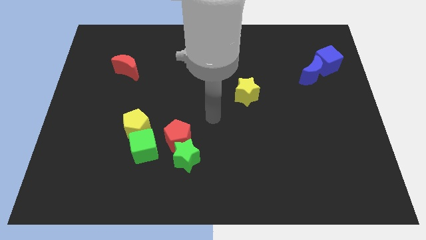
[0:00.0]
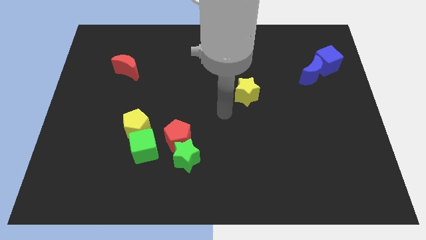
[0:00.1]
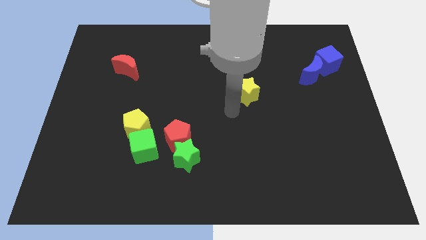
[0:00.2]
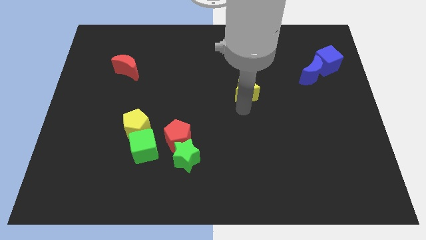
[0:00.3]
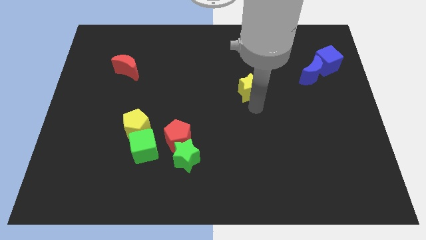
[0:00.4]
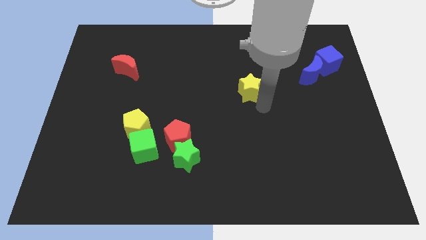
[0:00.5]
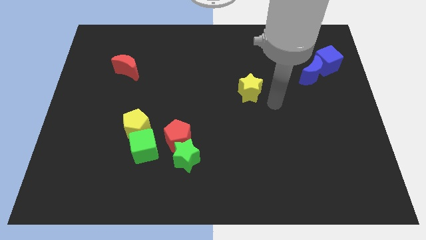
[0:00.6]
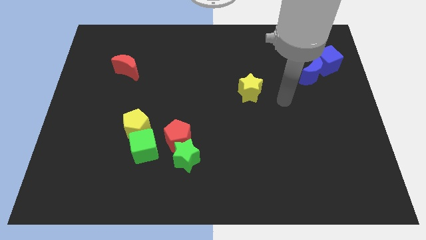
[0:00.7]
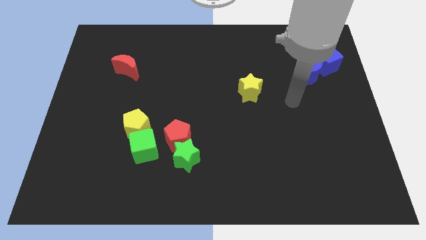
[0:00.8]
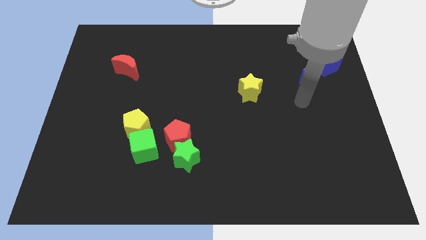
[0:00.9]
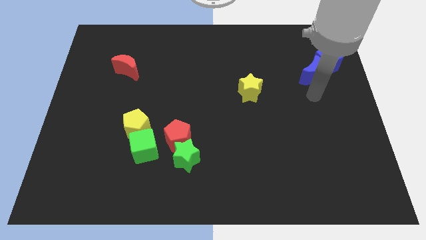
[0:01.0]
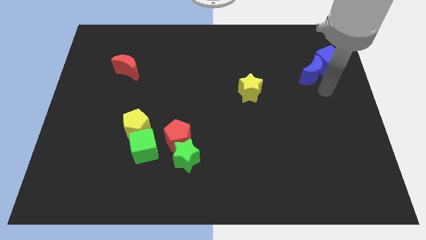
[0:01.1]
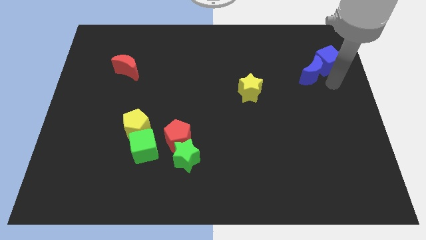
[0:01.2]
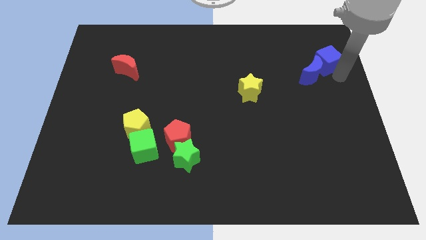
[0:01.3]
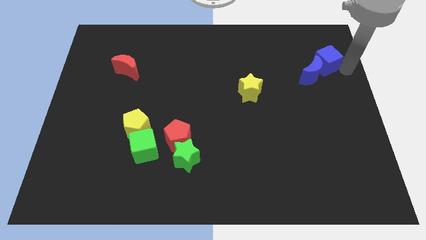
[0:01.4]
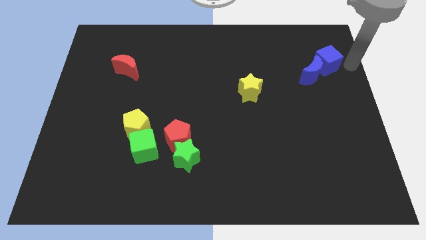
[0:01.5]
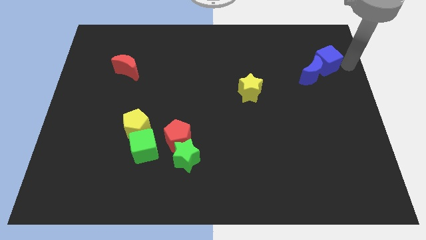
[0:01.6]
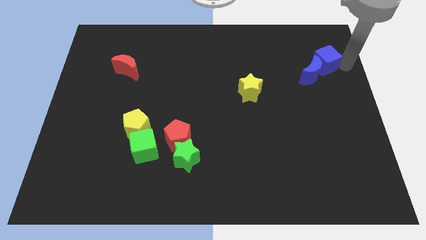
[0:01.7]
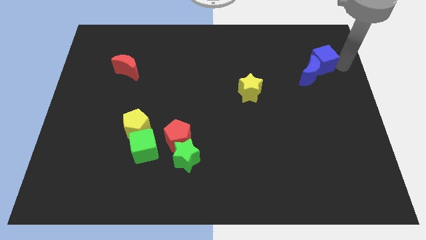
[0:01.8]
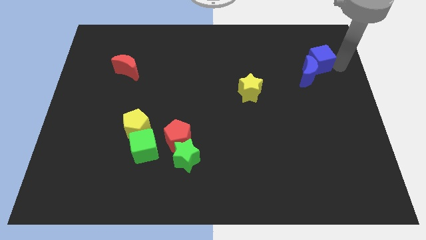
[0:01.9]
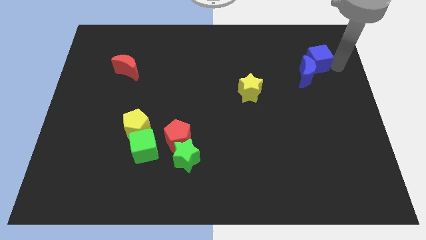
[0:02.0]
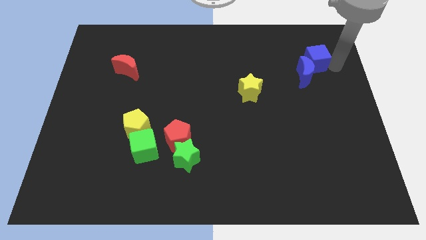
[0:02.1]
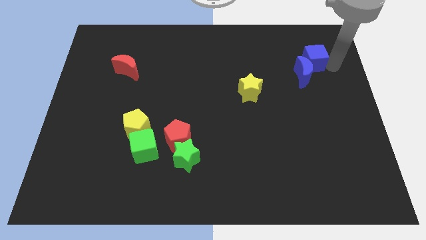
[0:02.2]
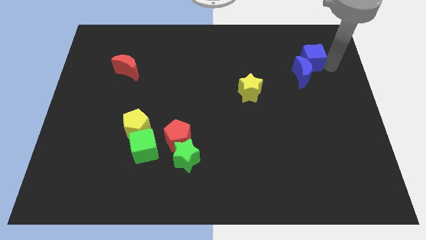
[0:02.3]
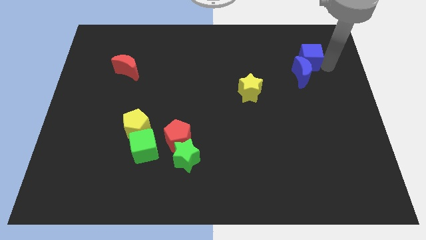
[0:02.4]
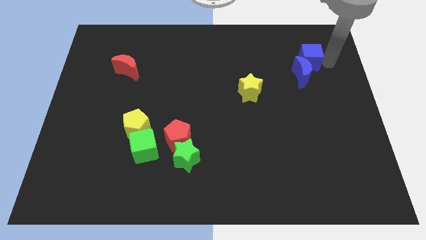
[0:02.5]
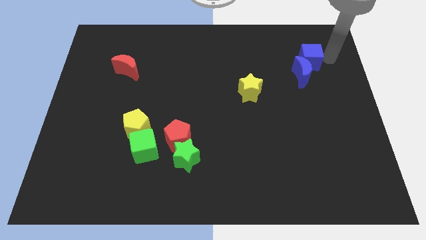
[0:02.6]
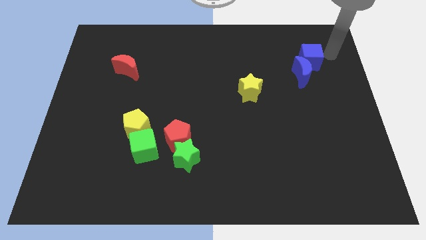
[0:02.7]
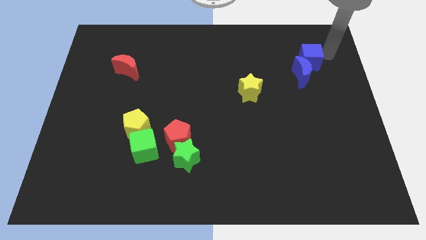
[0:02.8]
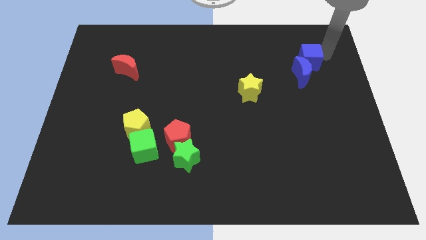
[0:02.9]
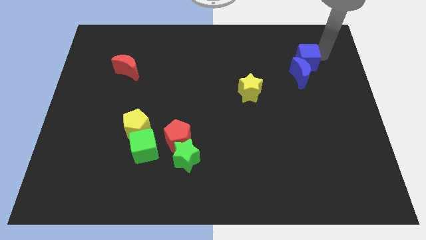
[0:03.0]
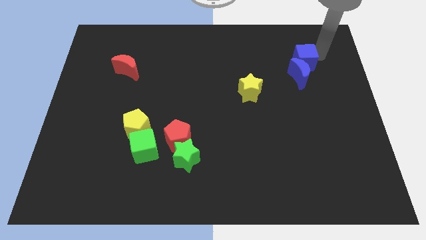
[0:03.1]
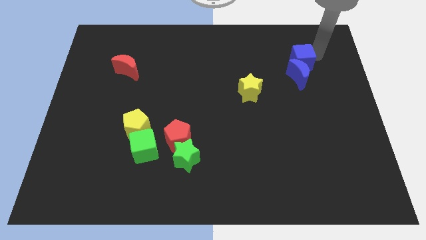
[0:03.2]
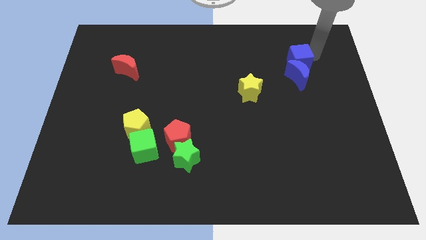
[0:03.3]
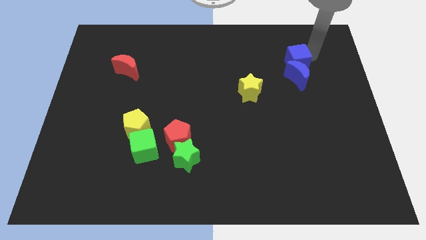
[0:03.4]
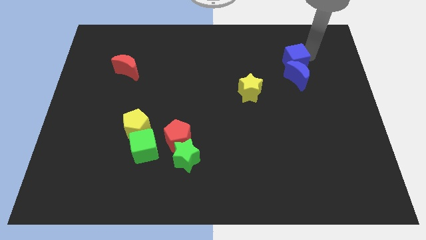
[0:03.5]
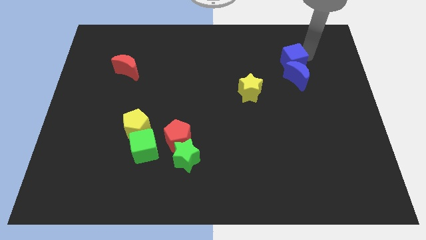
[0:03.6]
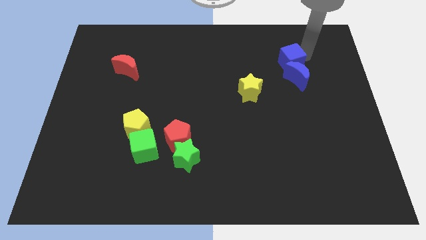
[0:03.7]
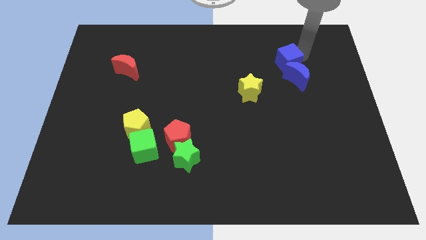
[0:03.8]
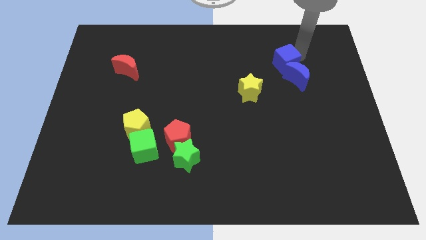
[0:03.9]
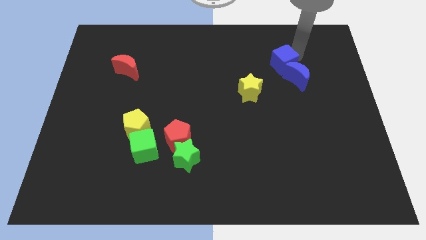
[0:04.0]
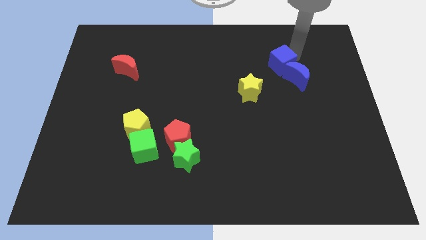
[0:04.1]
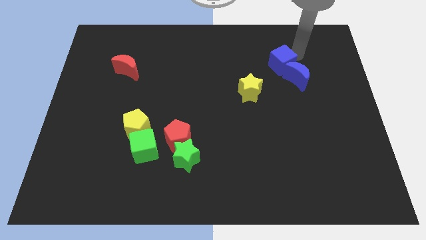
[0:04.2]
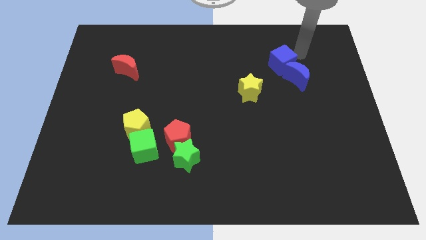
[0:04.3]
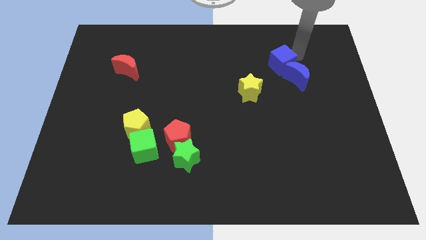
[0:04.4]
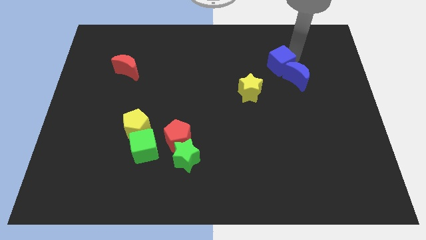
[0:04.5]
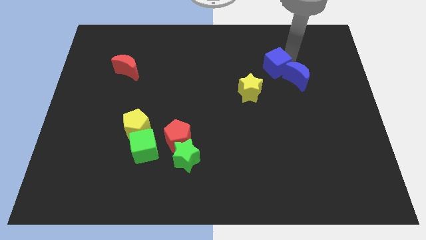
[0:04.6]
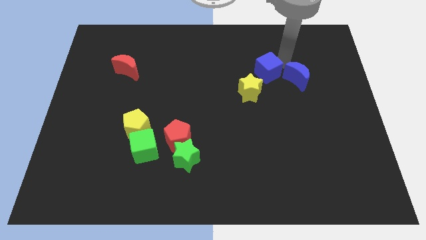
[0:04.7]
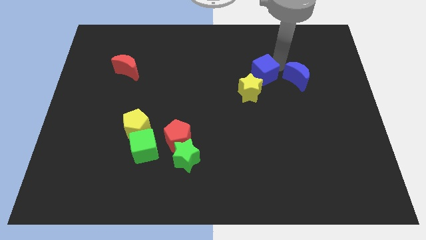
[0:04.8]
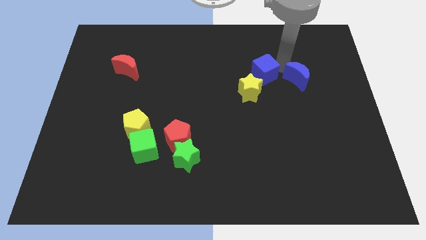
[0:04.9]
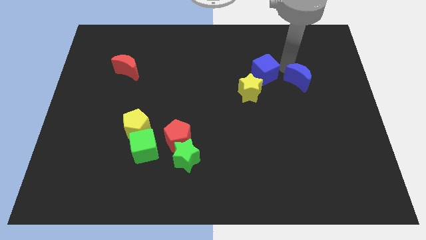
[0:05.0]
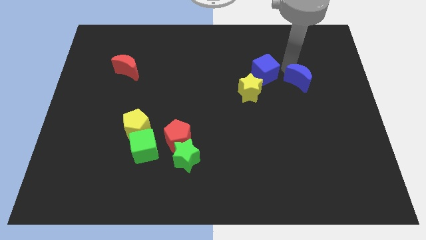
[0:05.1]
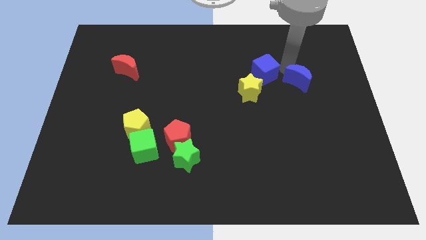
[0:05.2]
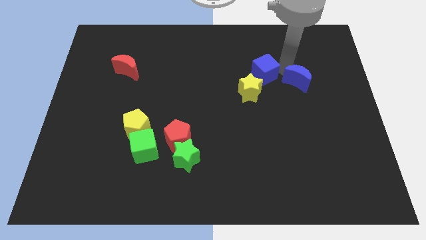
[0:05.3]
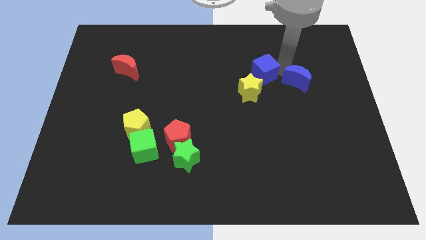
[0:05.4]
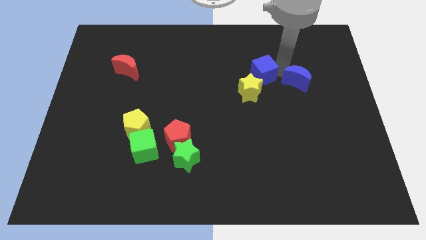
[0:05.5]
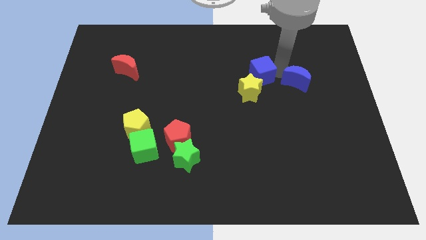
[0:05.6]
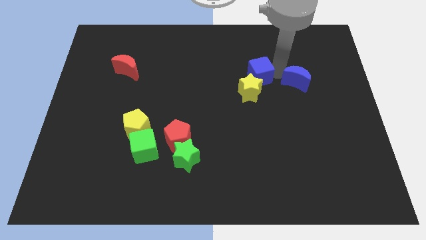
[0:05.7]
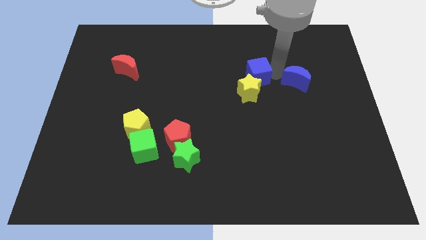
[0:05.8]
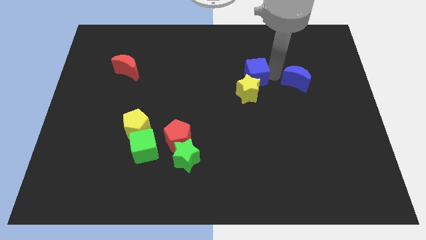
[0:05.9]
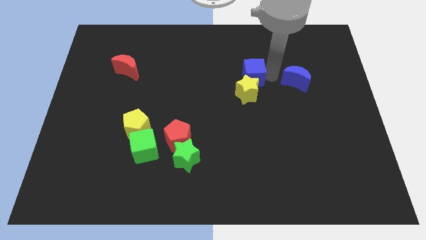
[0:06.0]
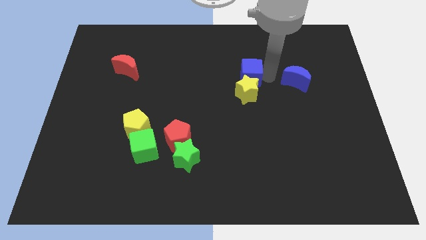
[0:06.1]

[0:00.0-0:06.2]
push the blue cube to the top left of the yellow star
